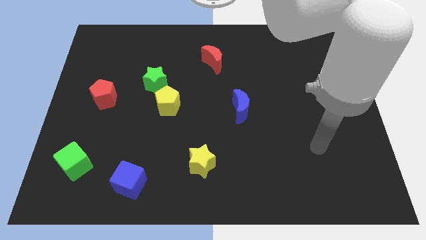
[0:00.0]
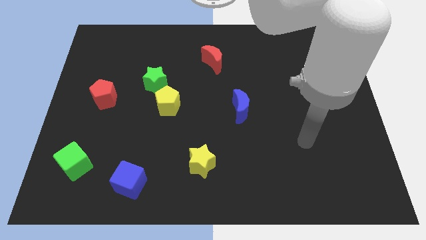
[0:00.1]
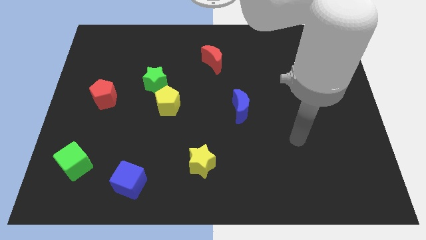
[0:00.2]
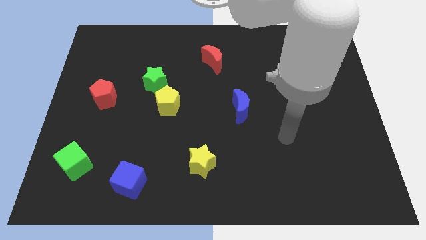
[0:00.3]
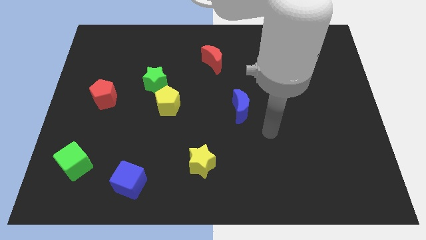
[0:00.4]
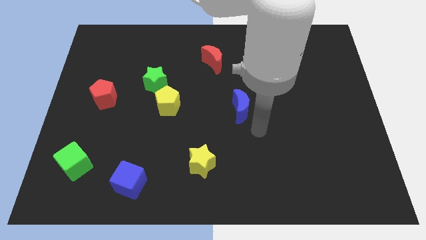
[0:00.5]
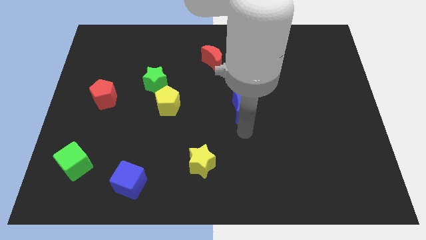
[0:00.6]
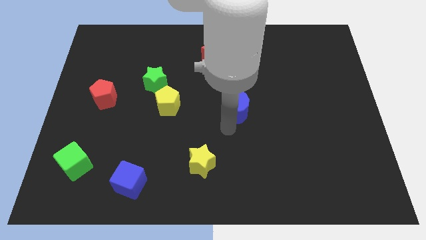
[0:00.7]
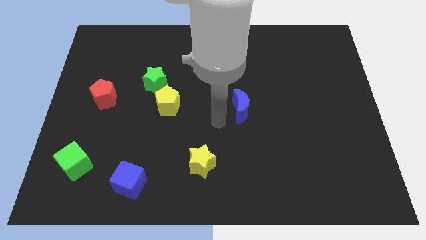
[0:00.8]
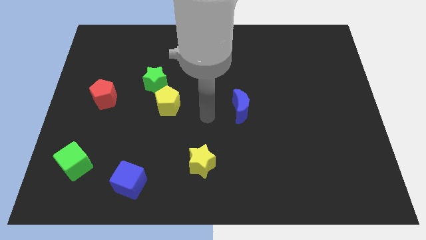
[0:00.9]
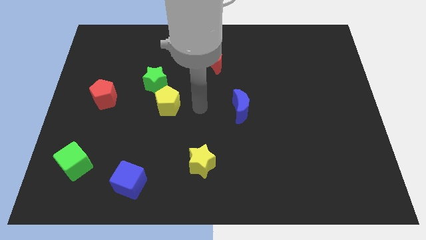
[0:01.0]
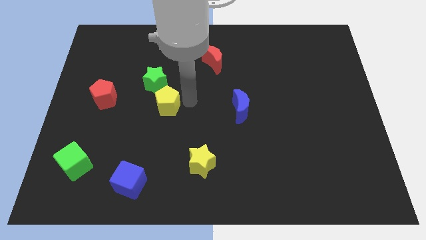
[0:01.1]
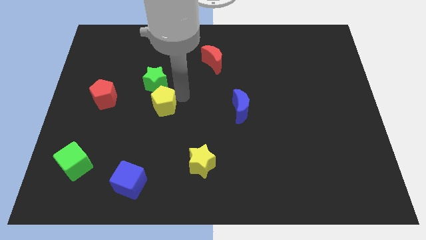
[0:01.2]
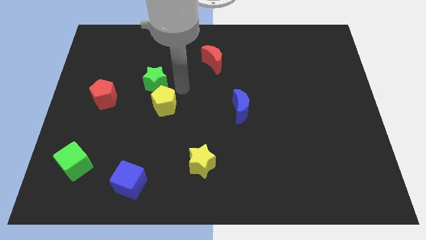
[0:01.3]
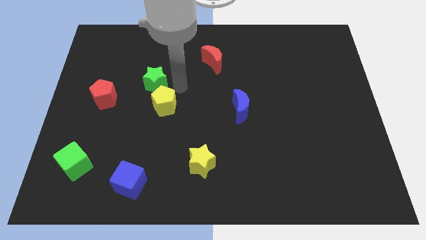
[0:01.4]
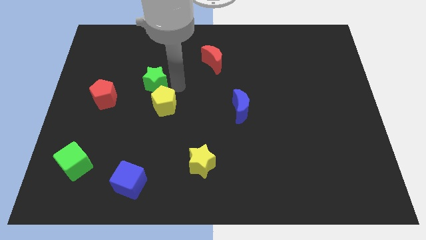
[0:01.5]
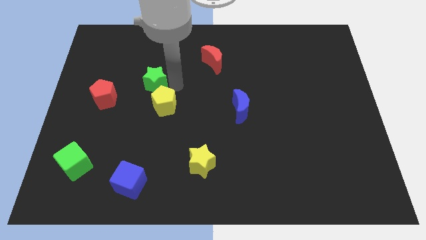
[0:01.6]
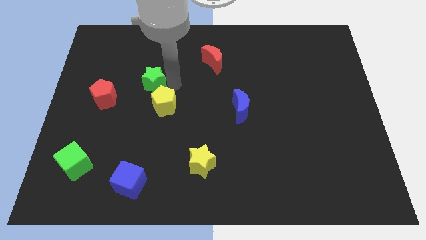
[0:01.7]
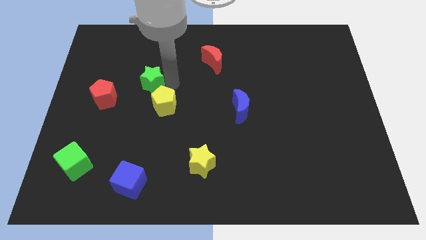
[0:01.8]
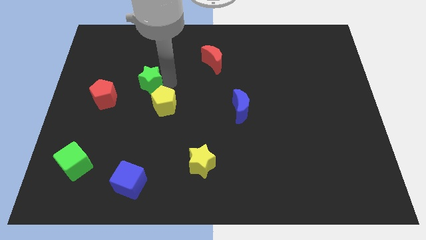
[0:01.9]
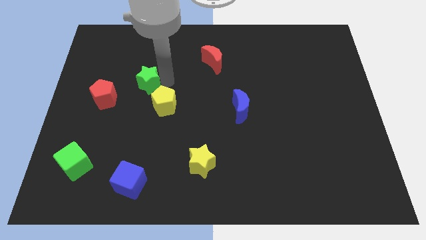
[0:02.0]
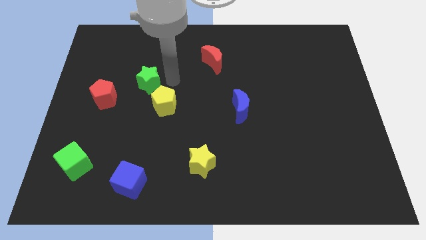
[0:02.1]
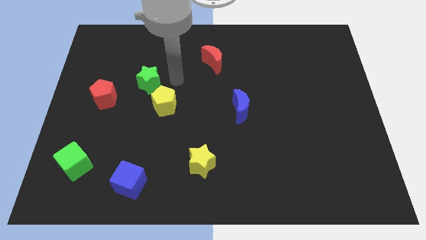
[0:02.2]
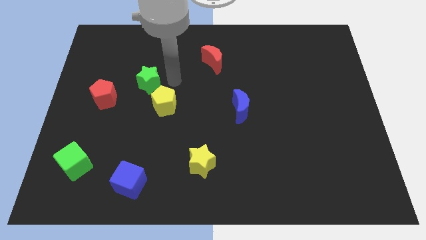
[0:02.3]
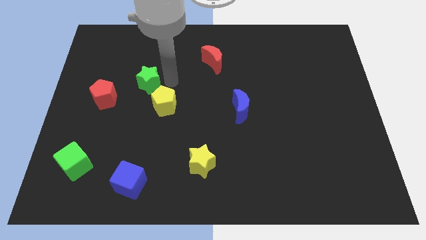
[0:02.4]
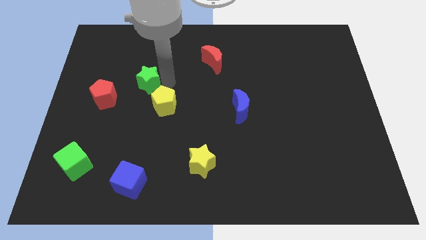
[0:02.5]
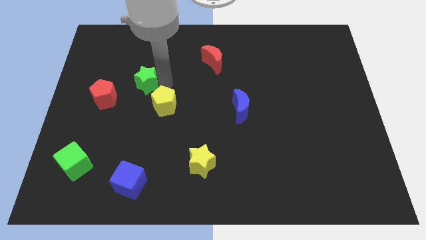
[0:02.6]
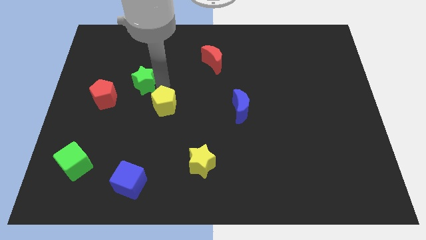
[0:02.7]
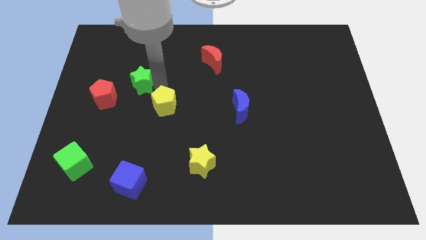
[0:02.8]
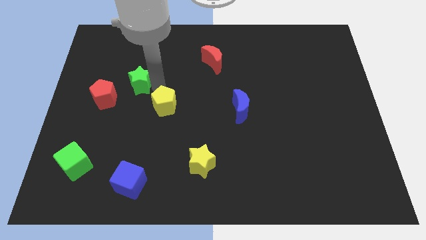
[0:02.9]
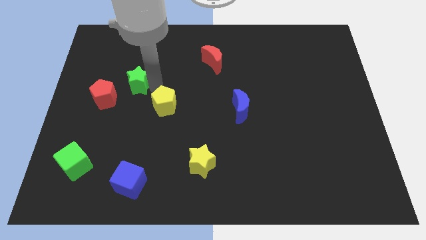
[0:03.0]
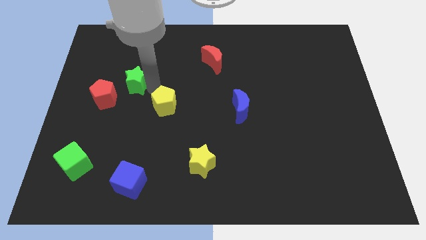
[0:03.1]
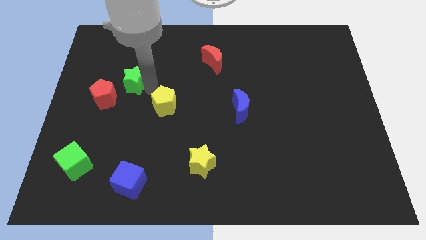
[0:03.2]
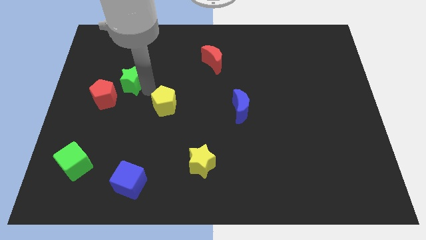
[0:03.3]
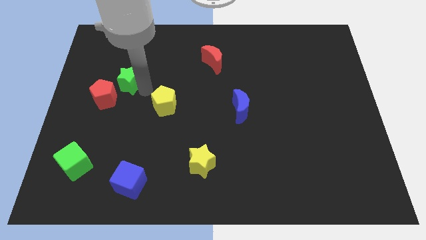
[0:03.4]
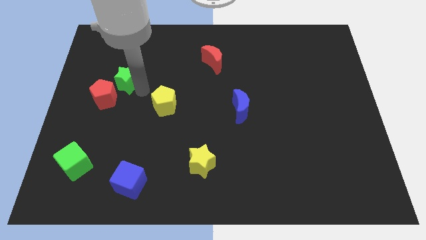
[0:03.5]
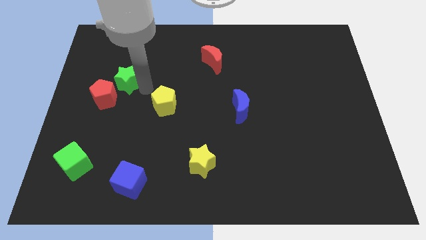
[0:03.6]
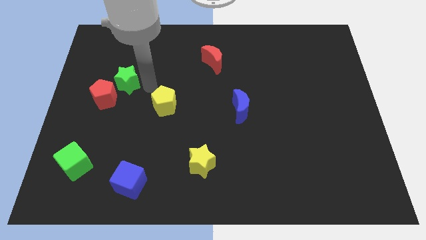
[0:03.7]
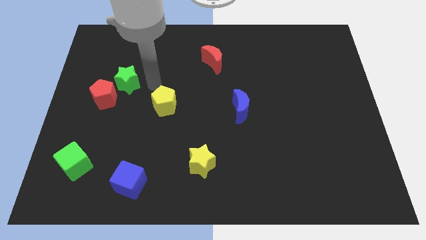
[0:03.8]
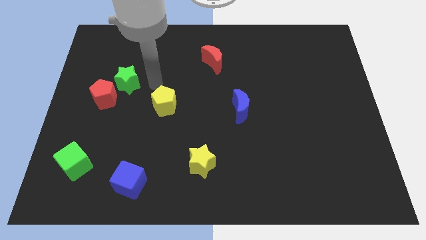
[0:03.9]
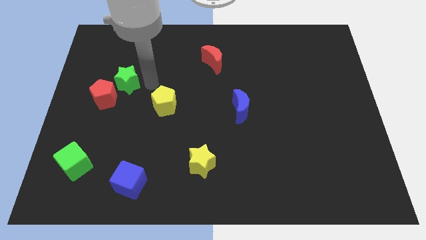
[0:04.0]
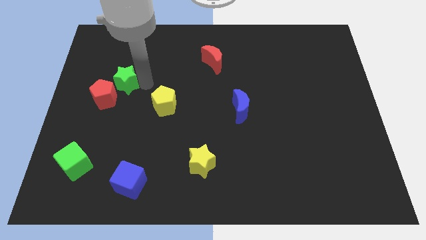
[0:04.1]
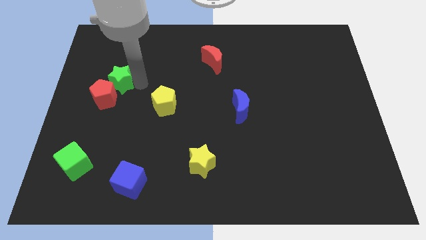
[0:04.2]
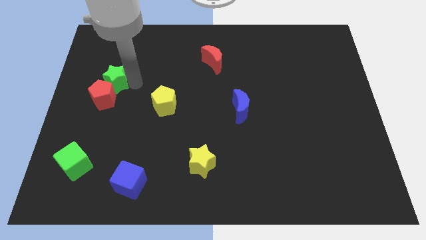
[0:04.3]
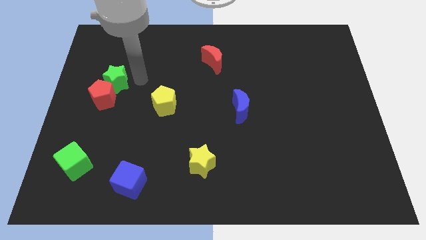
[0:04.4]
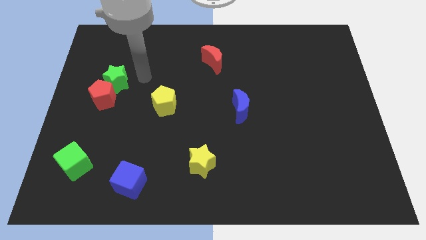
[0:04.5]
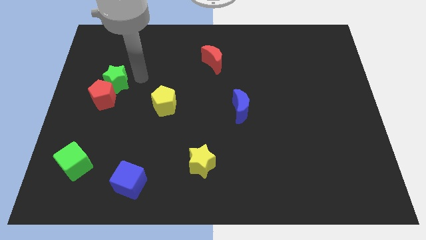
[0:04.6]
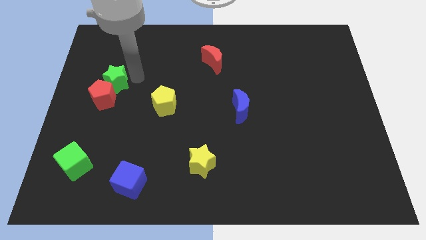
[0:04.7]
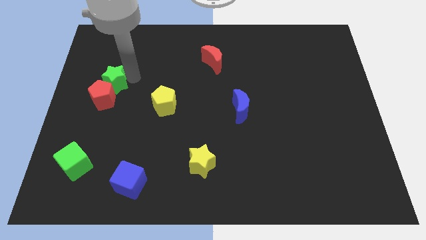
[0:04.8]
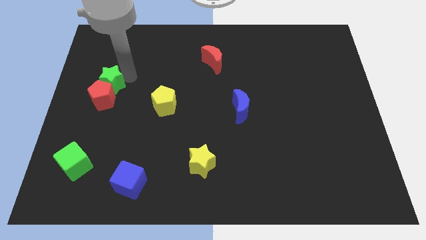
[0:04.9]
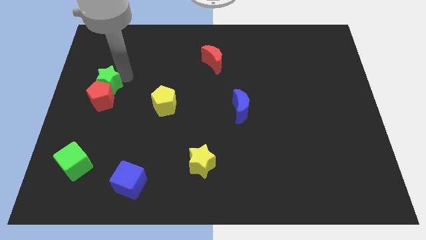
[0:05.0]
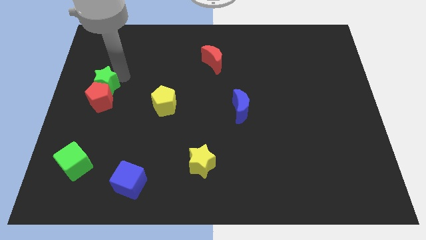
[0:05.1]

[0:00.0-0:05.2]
slide the green star to the left side of the board

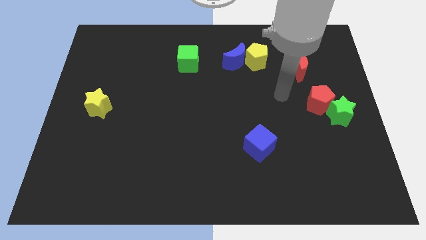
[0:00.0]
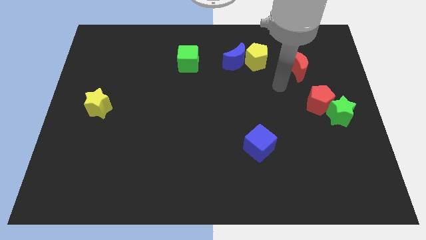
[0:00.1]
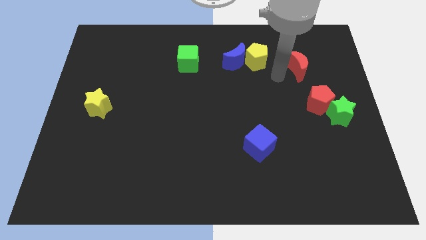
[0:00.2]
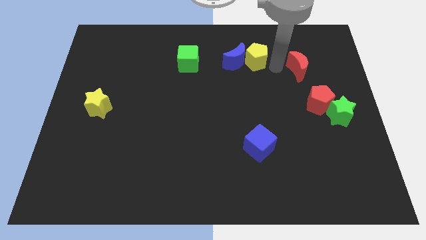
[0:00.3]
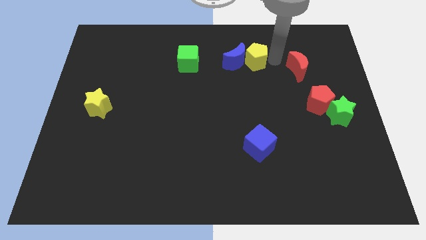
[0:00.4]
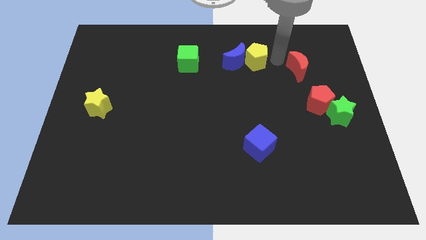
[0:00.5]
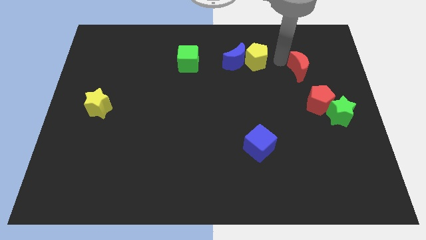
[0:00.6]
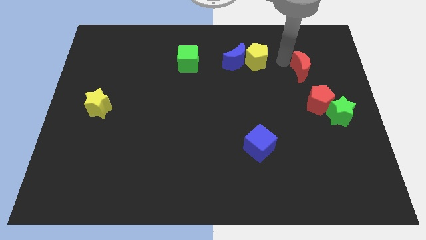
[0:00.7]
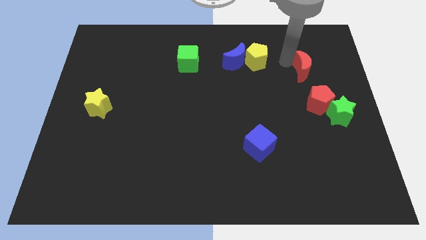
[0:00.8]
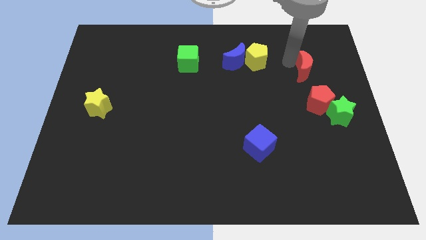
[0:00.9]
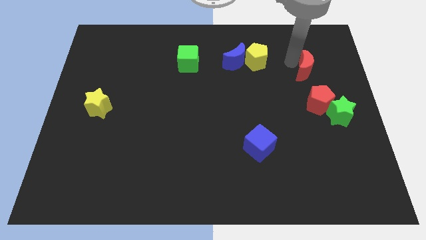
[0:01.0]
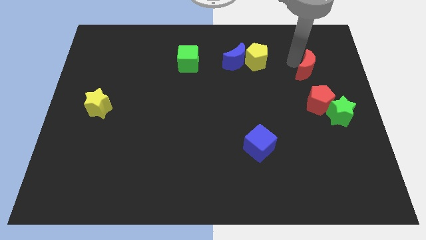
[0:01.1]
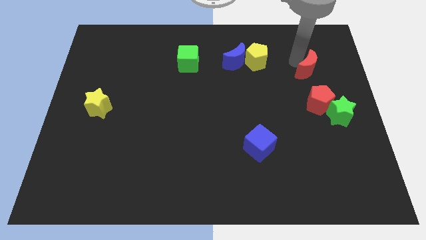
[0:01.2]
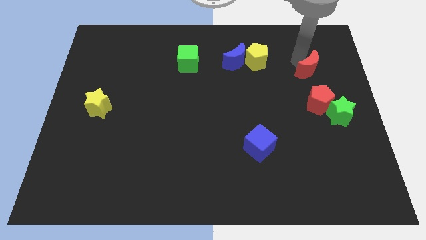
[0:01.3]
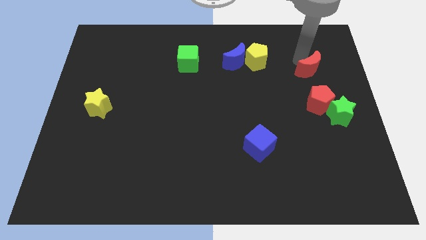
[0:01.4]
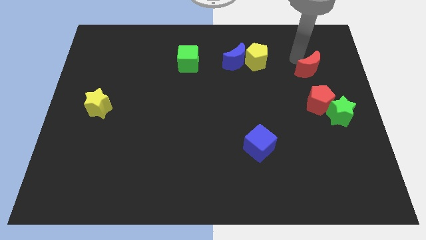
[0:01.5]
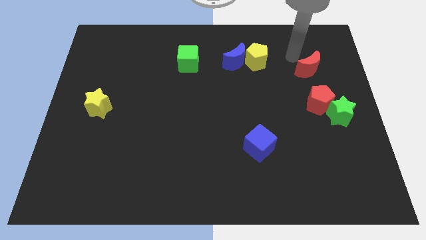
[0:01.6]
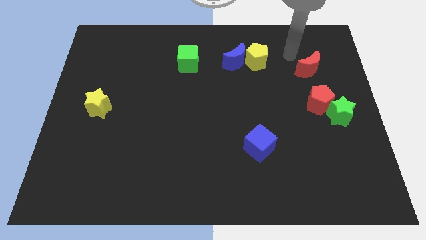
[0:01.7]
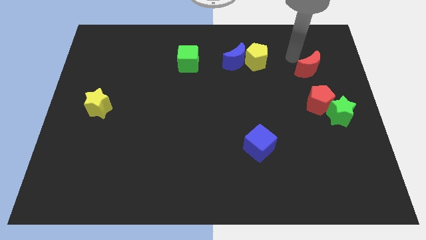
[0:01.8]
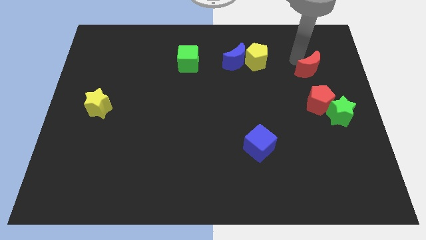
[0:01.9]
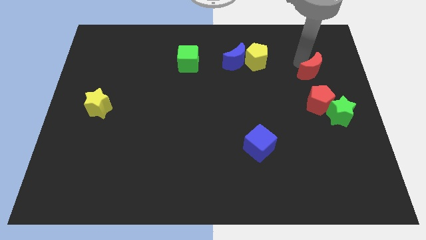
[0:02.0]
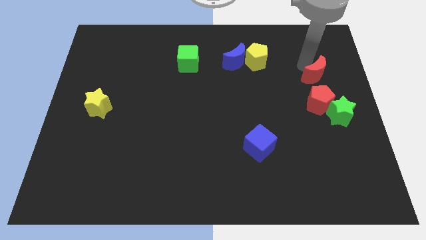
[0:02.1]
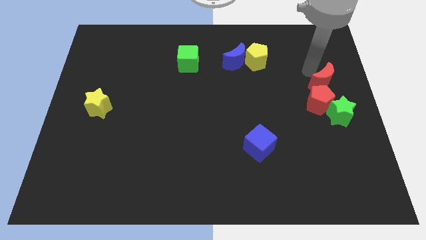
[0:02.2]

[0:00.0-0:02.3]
push the red moon to the right side of the board
